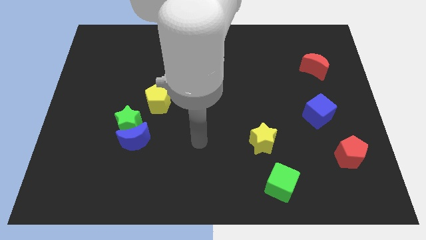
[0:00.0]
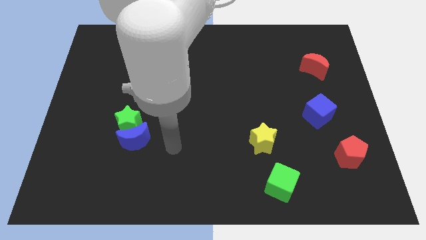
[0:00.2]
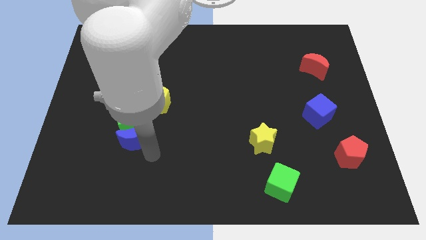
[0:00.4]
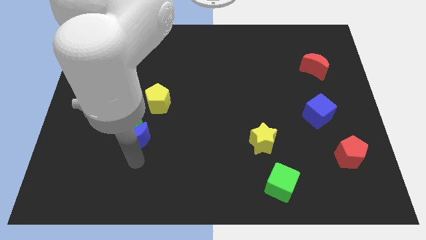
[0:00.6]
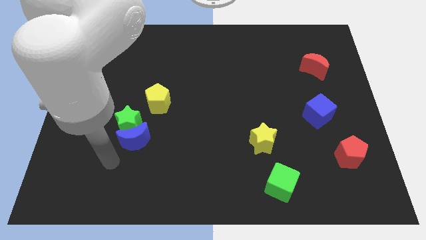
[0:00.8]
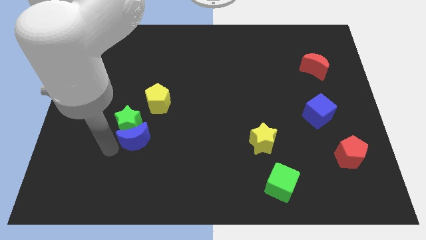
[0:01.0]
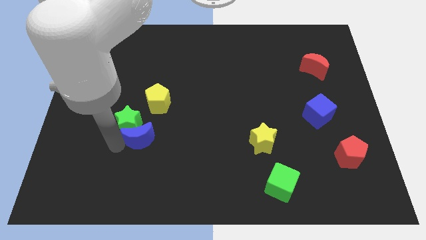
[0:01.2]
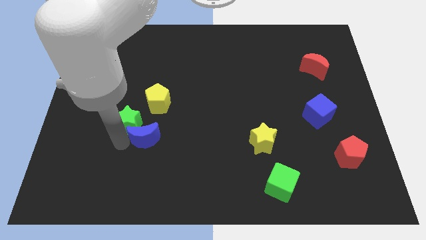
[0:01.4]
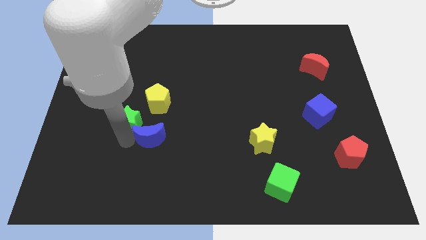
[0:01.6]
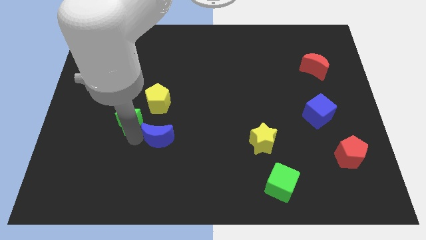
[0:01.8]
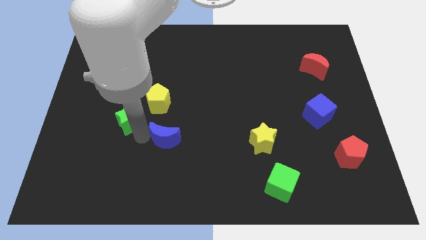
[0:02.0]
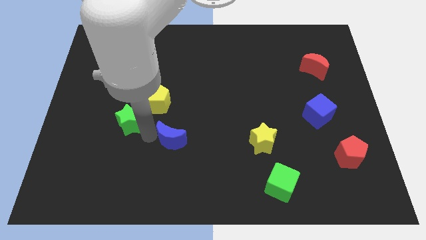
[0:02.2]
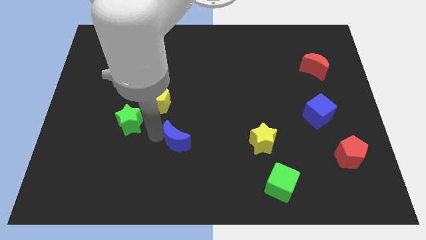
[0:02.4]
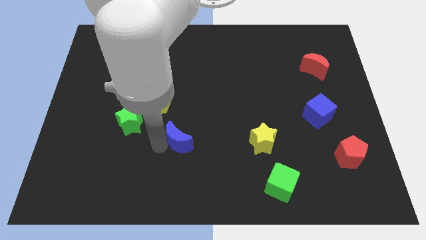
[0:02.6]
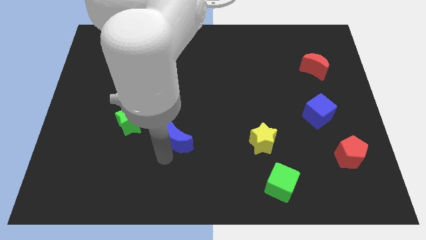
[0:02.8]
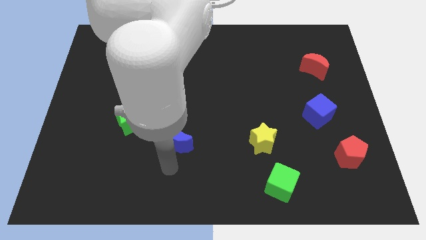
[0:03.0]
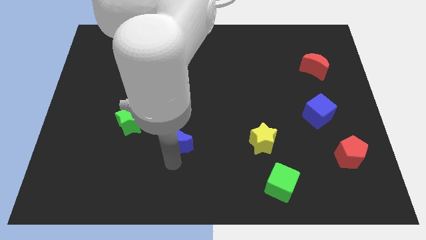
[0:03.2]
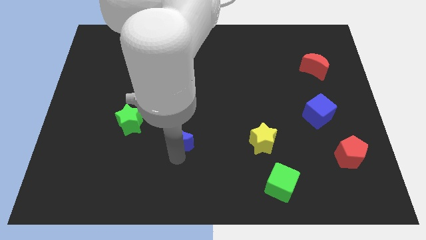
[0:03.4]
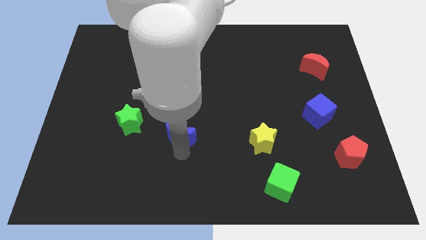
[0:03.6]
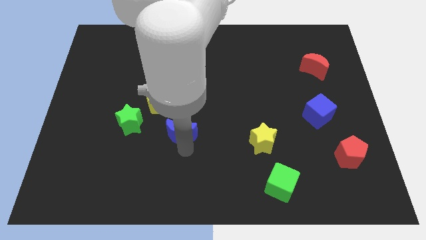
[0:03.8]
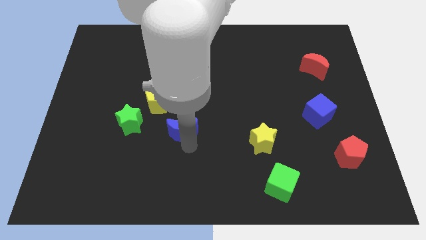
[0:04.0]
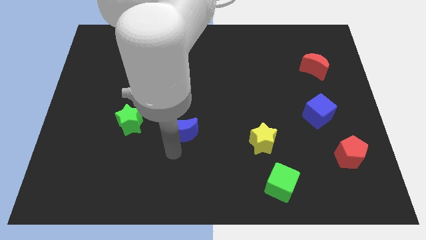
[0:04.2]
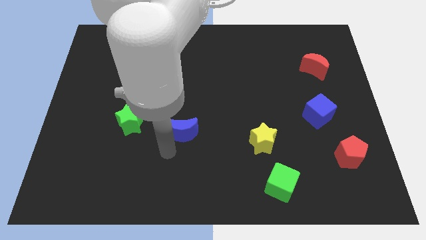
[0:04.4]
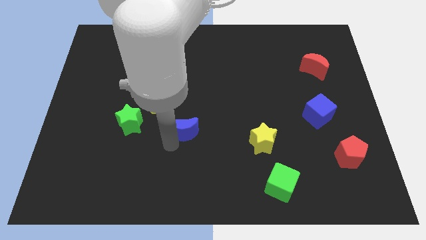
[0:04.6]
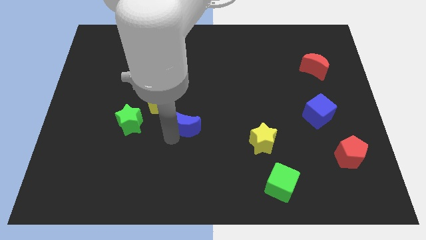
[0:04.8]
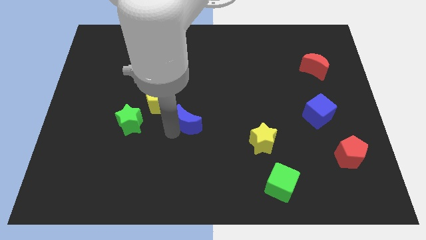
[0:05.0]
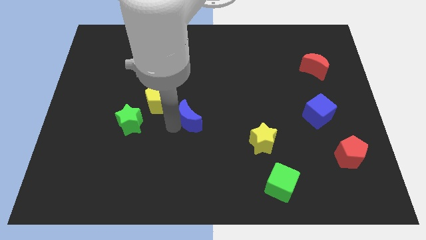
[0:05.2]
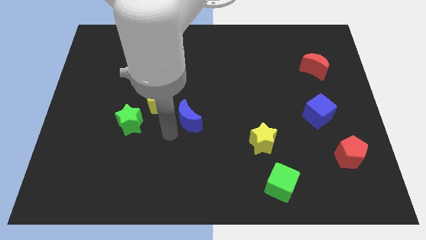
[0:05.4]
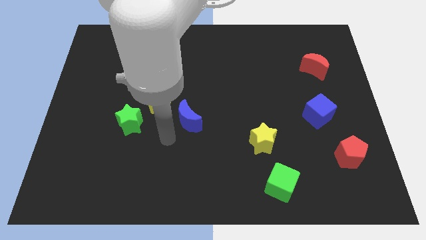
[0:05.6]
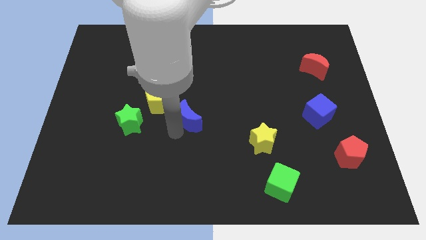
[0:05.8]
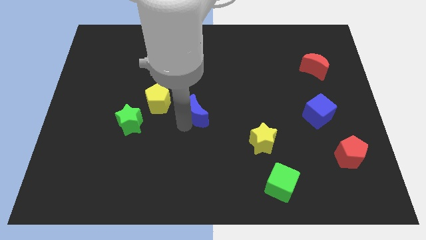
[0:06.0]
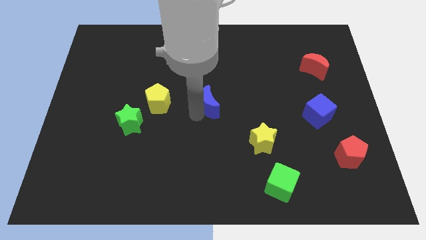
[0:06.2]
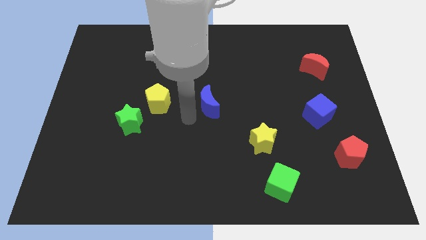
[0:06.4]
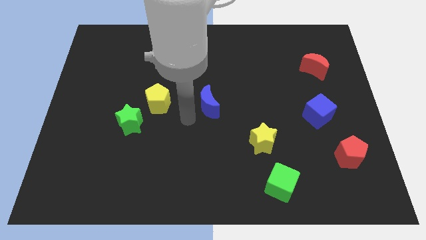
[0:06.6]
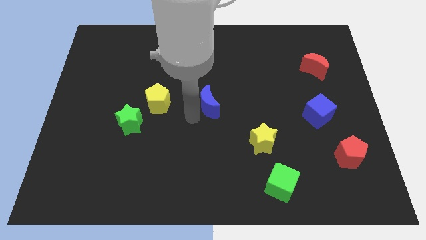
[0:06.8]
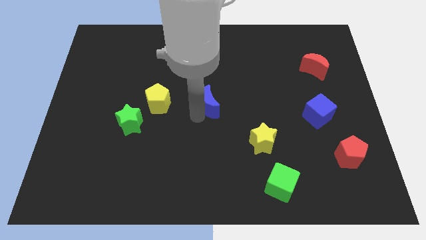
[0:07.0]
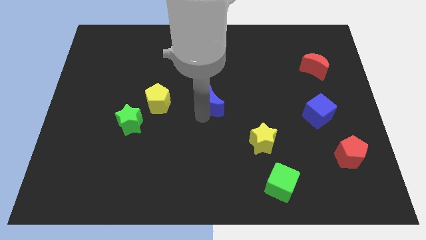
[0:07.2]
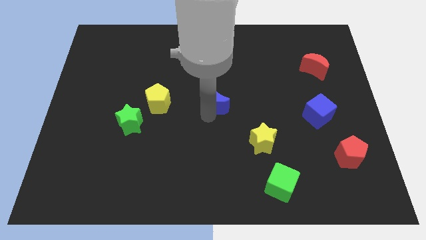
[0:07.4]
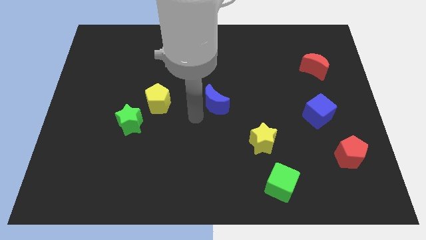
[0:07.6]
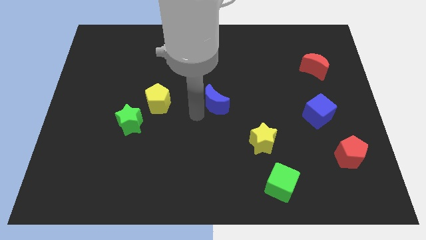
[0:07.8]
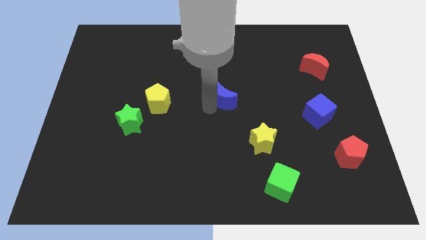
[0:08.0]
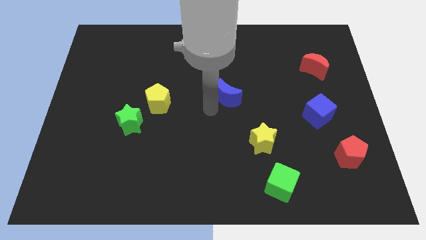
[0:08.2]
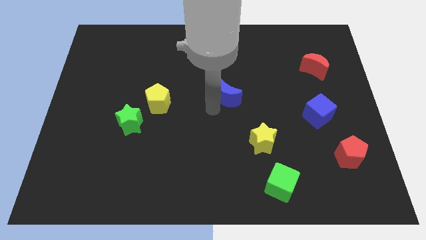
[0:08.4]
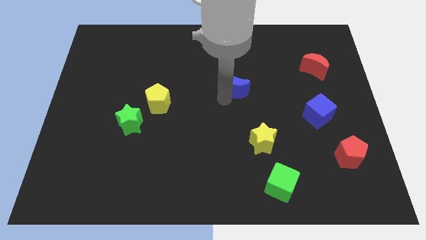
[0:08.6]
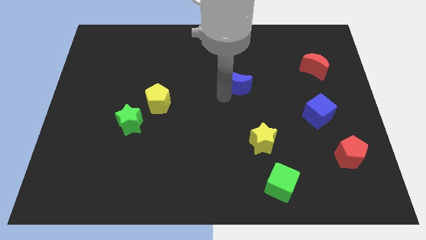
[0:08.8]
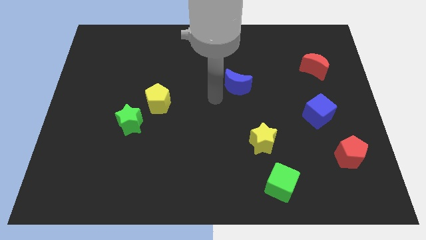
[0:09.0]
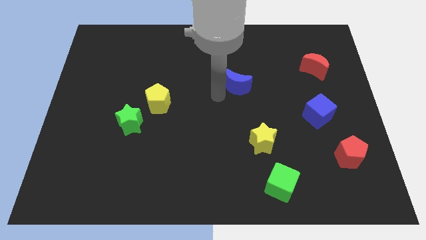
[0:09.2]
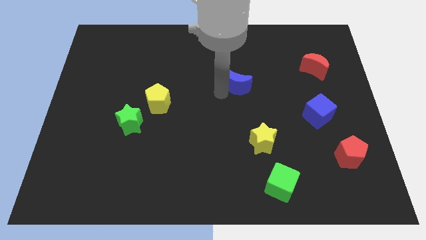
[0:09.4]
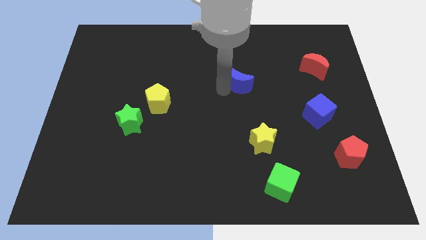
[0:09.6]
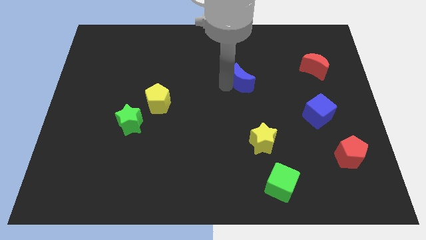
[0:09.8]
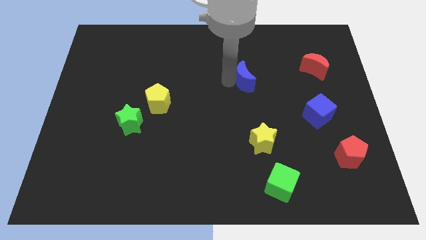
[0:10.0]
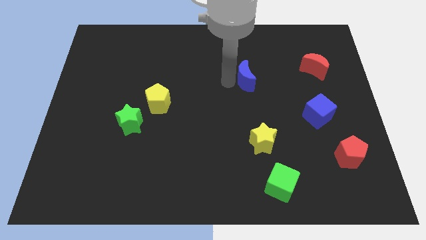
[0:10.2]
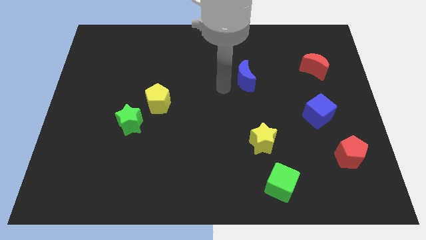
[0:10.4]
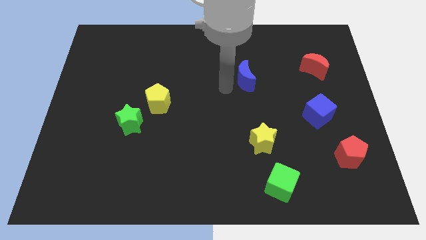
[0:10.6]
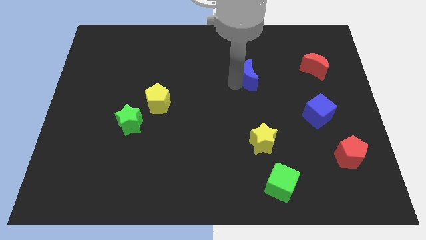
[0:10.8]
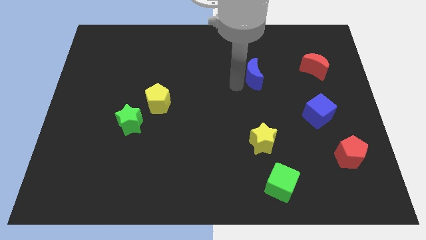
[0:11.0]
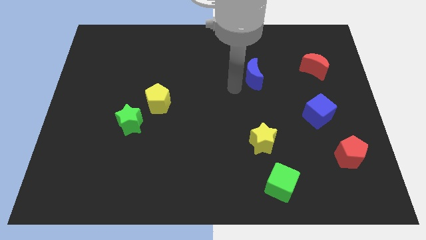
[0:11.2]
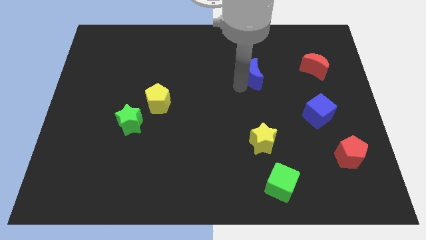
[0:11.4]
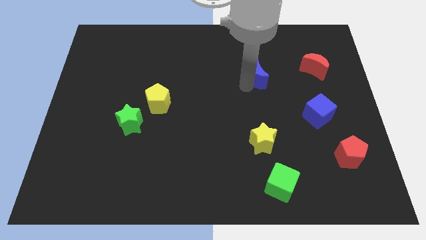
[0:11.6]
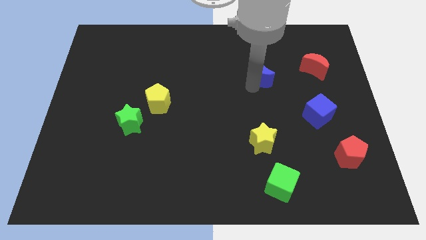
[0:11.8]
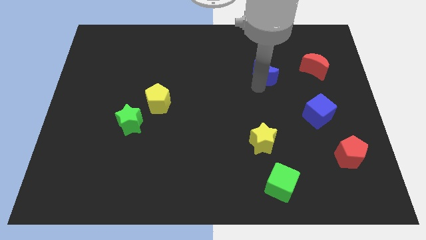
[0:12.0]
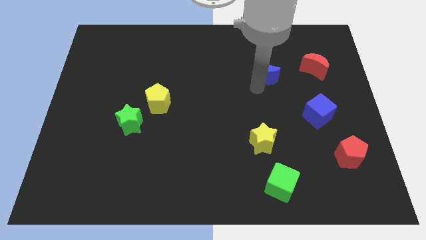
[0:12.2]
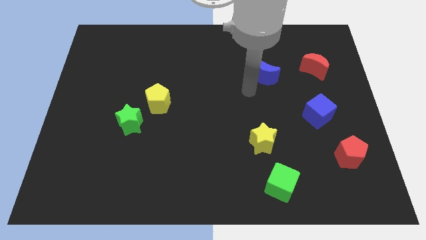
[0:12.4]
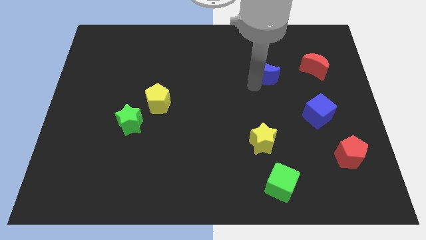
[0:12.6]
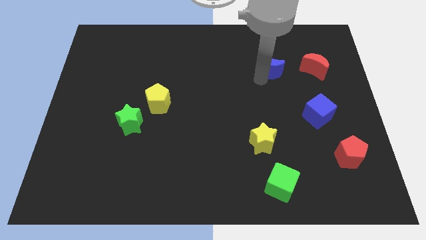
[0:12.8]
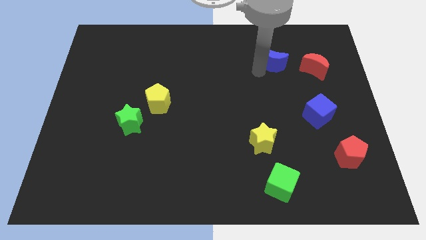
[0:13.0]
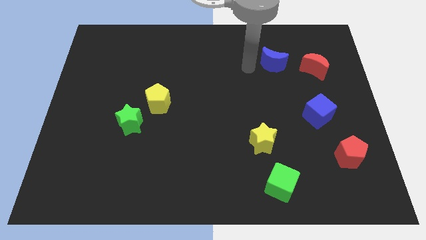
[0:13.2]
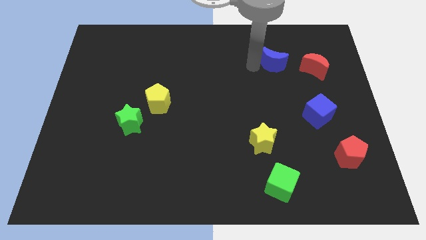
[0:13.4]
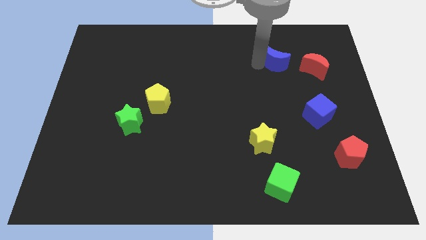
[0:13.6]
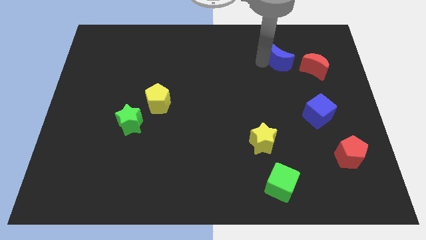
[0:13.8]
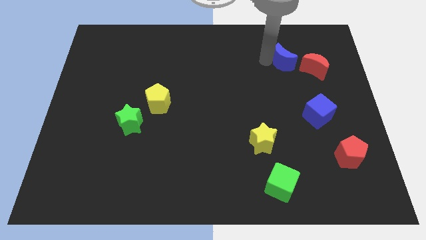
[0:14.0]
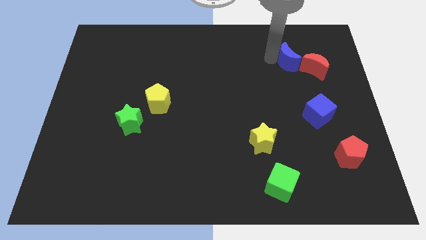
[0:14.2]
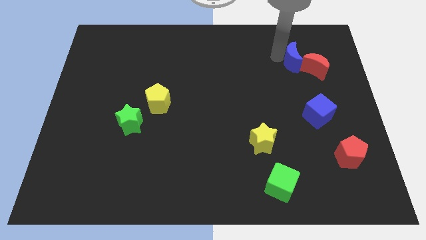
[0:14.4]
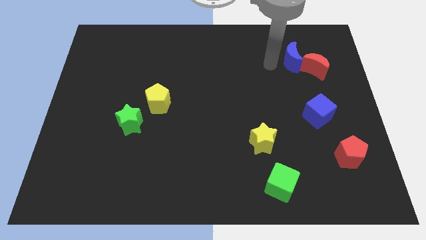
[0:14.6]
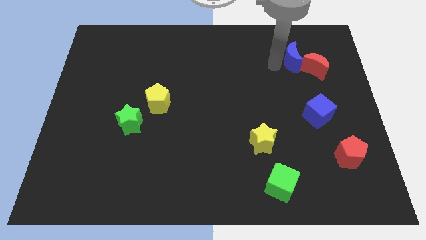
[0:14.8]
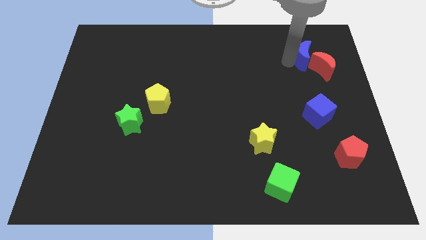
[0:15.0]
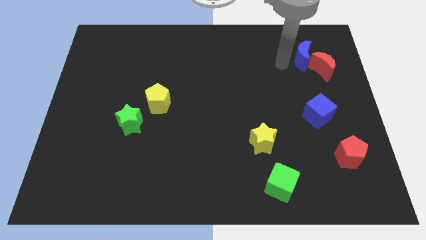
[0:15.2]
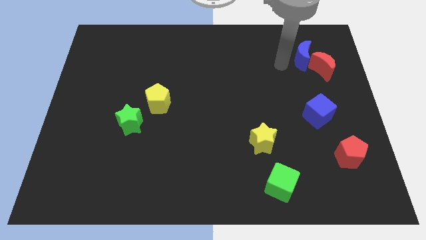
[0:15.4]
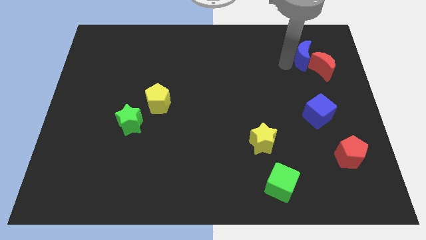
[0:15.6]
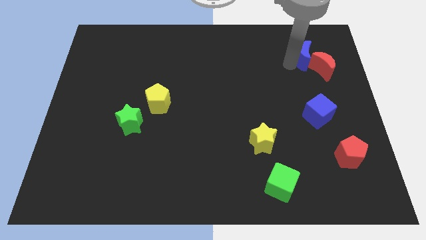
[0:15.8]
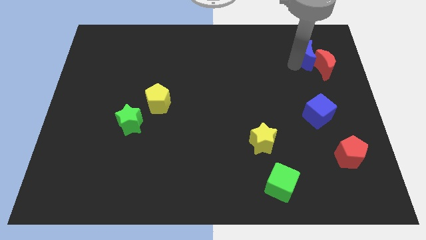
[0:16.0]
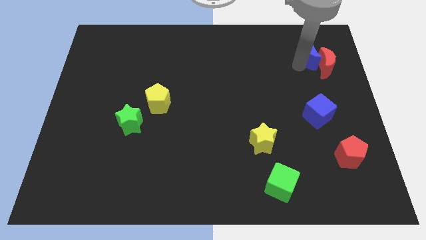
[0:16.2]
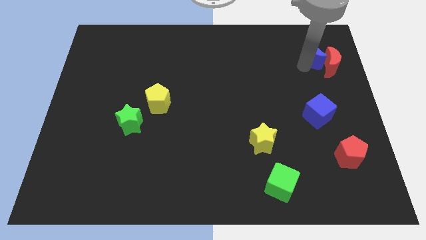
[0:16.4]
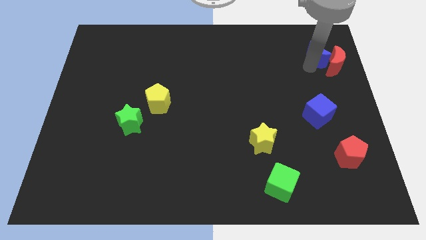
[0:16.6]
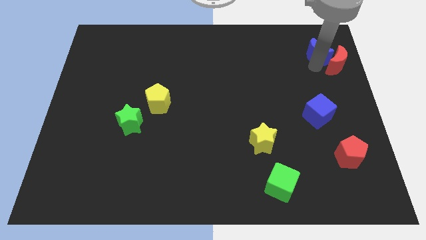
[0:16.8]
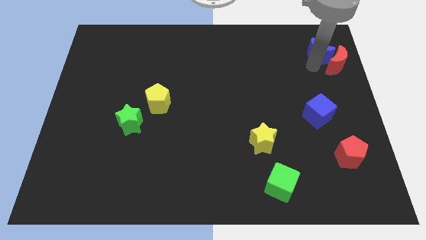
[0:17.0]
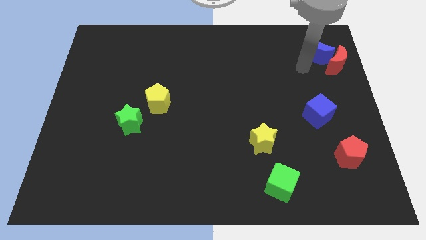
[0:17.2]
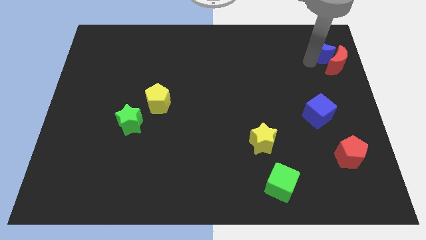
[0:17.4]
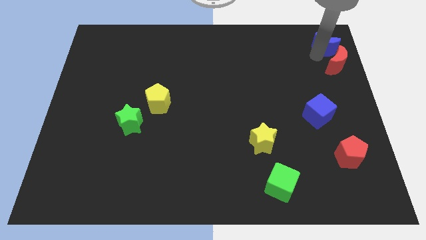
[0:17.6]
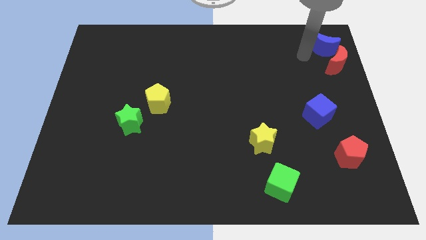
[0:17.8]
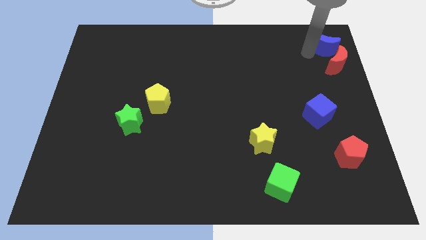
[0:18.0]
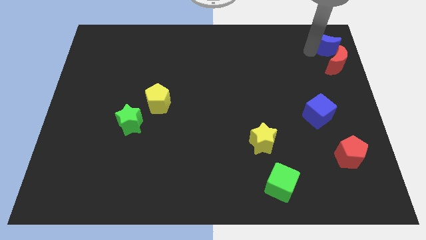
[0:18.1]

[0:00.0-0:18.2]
put the blue moon to the top right of the board
